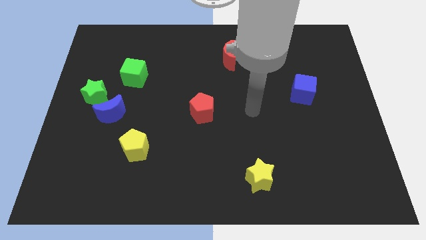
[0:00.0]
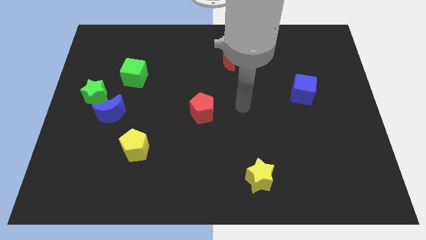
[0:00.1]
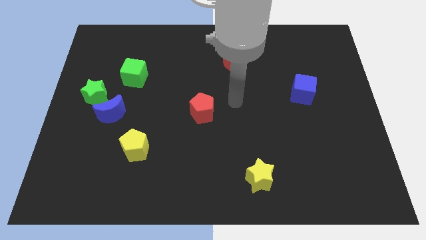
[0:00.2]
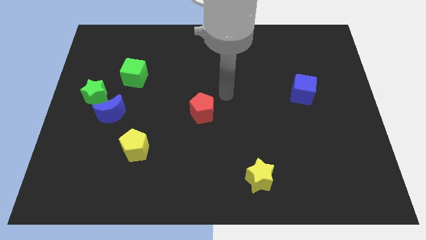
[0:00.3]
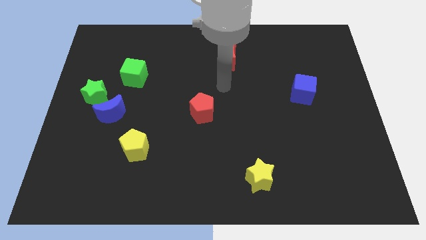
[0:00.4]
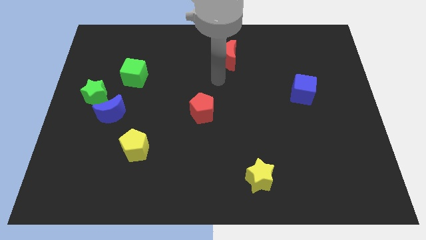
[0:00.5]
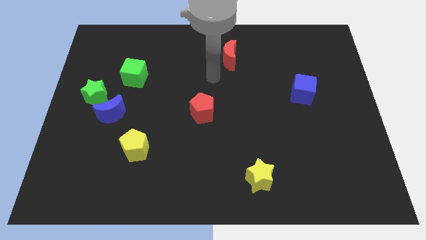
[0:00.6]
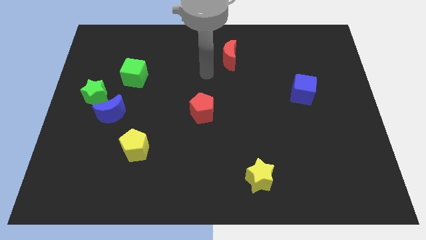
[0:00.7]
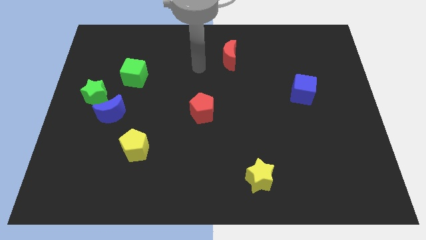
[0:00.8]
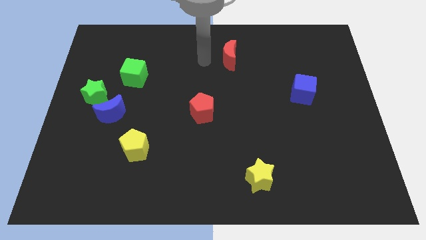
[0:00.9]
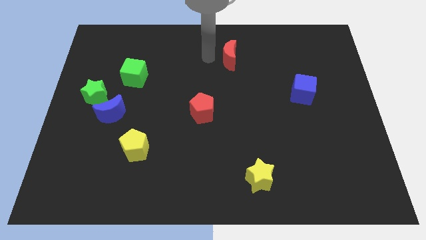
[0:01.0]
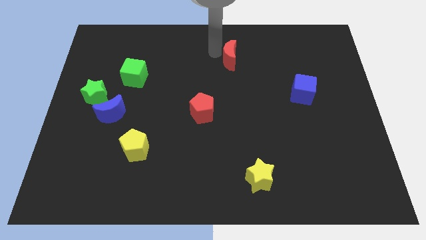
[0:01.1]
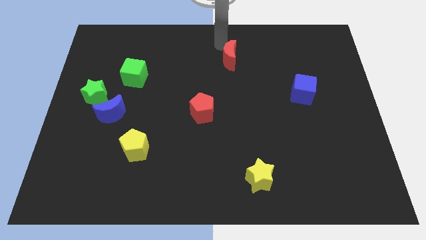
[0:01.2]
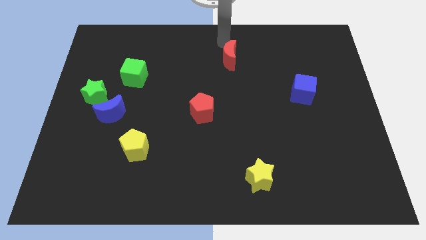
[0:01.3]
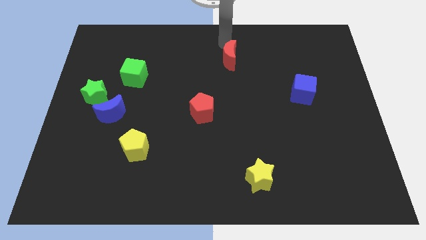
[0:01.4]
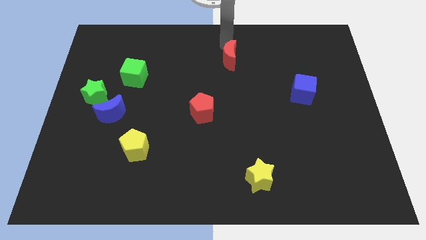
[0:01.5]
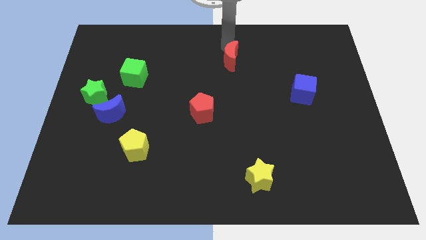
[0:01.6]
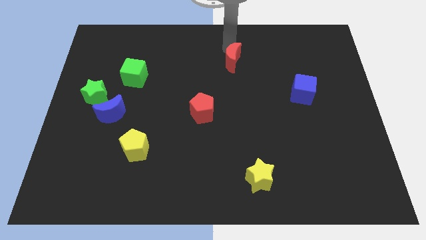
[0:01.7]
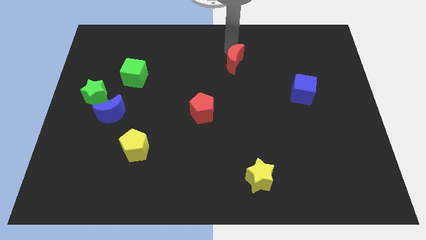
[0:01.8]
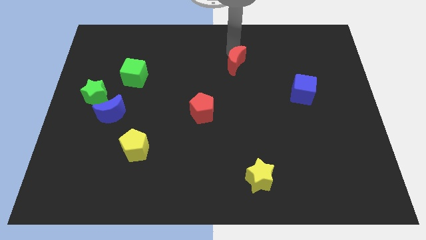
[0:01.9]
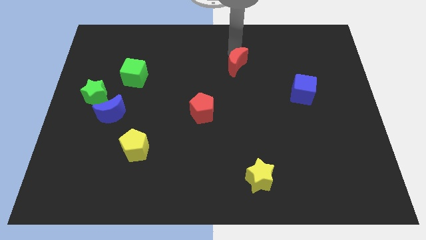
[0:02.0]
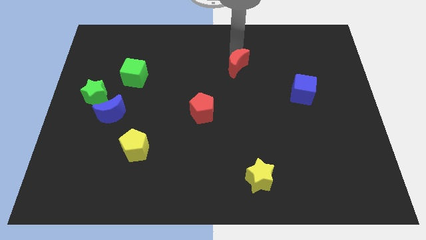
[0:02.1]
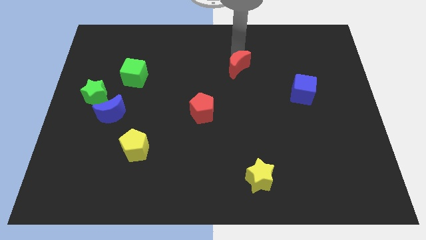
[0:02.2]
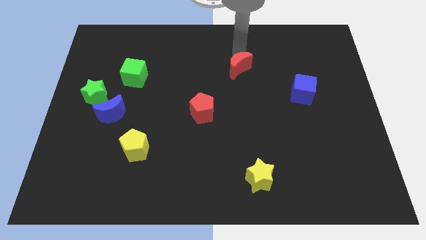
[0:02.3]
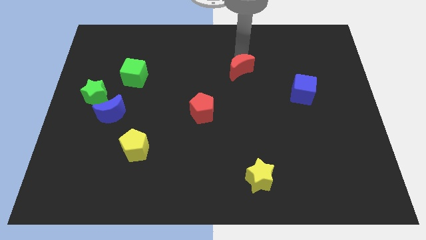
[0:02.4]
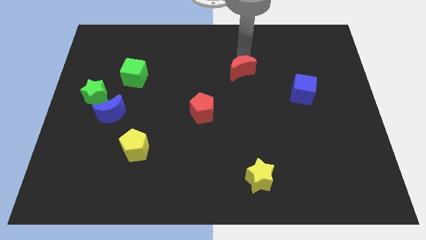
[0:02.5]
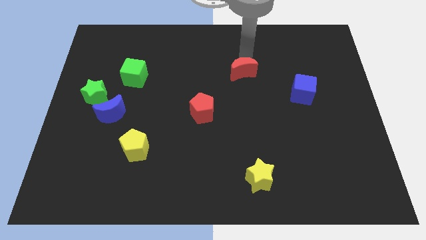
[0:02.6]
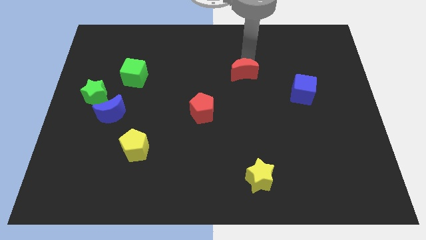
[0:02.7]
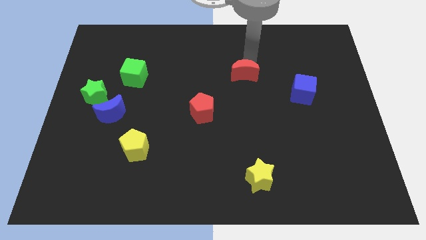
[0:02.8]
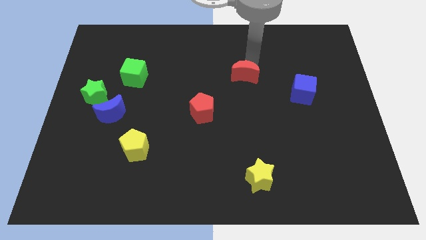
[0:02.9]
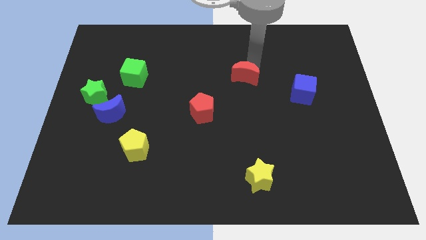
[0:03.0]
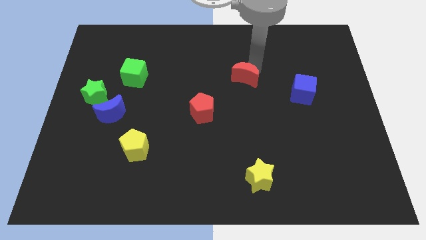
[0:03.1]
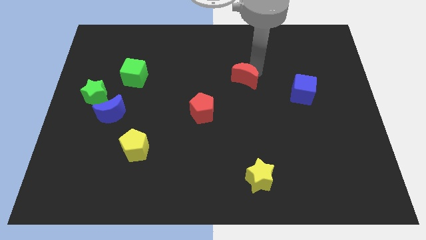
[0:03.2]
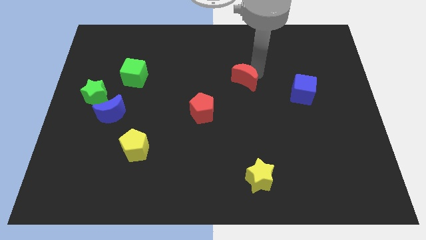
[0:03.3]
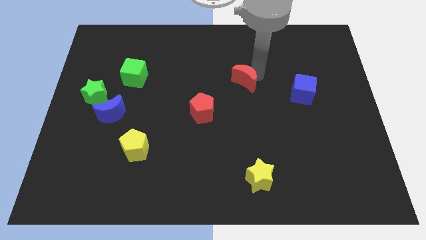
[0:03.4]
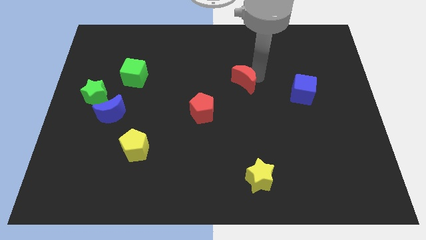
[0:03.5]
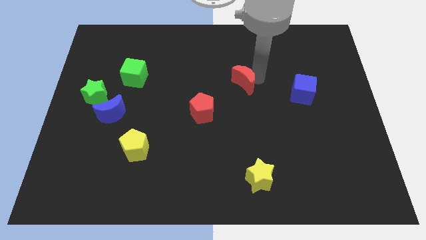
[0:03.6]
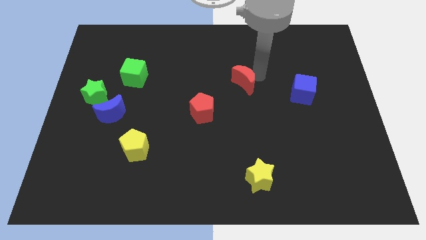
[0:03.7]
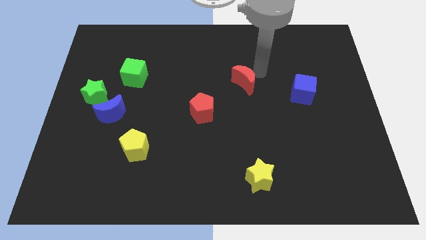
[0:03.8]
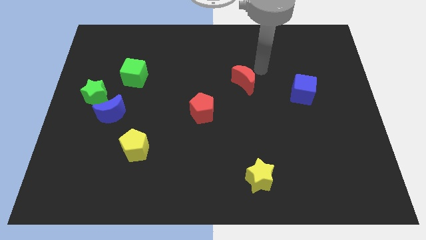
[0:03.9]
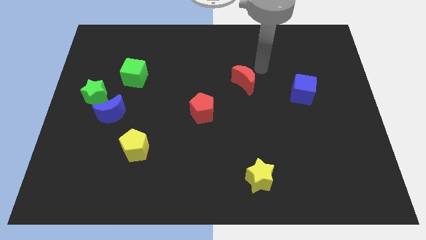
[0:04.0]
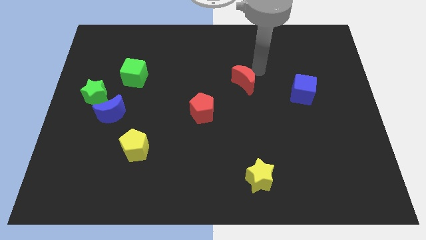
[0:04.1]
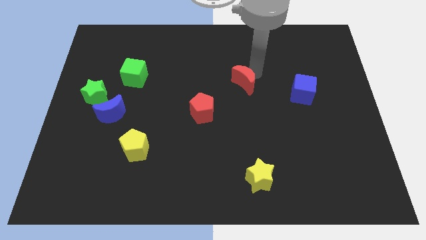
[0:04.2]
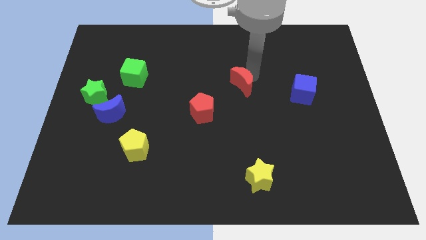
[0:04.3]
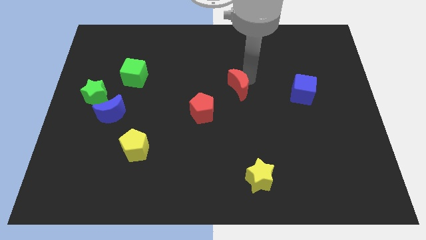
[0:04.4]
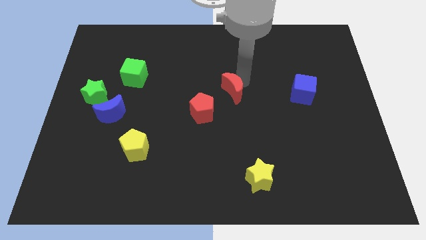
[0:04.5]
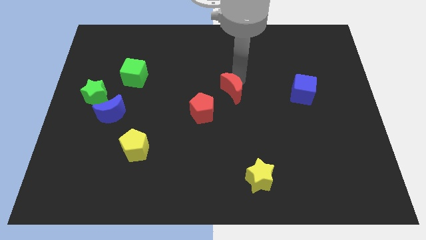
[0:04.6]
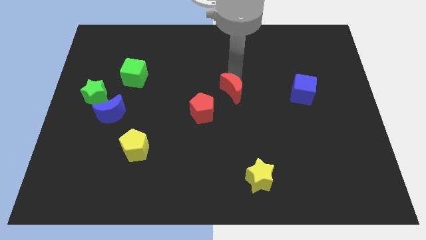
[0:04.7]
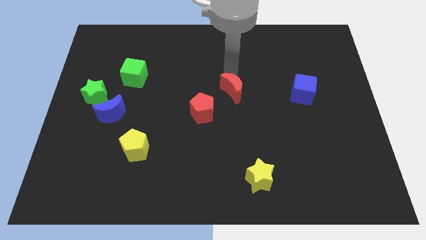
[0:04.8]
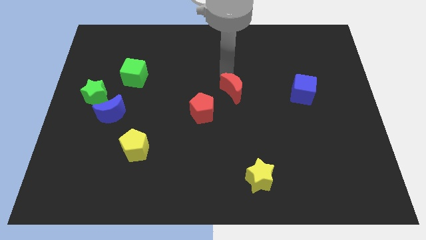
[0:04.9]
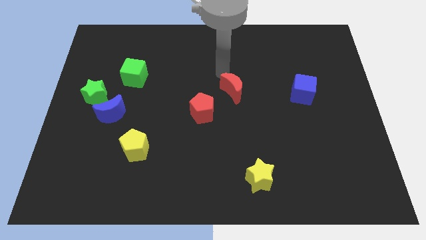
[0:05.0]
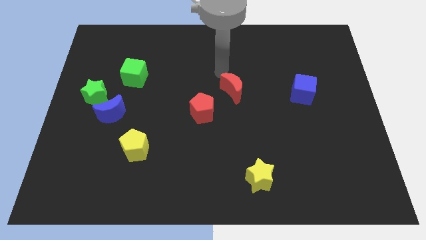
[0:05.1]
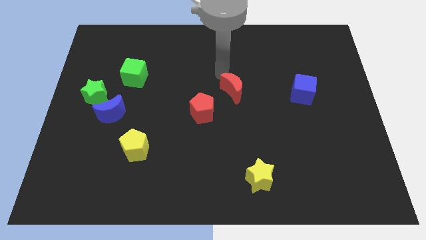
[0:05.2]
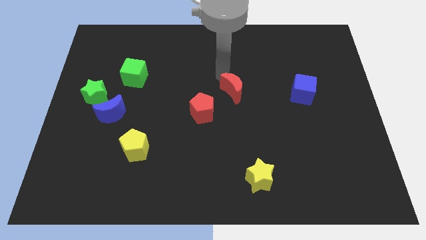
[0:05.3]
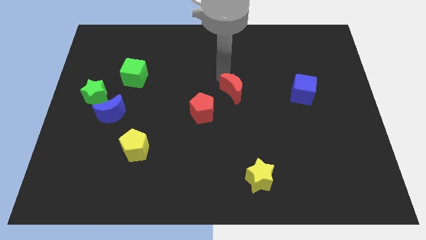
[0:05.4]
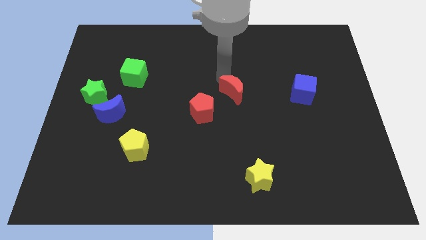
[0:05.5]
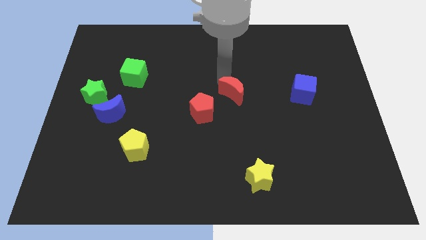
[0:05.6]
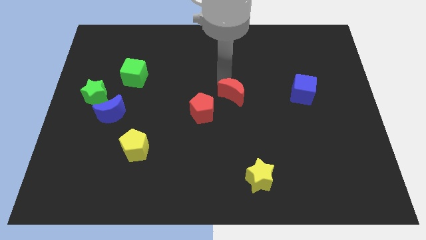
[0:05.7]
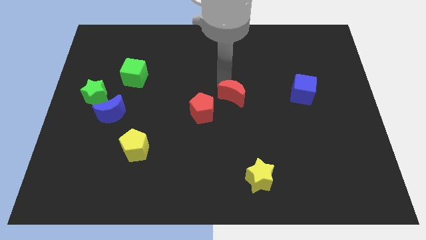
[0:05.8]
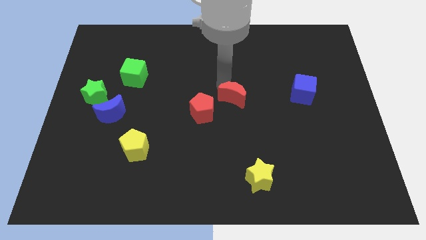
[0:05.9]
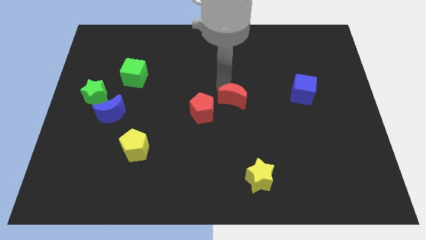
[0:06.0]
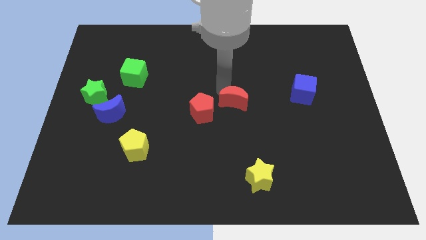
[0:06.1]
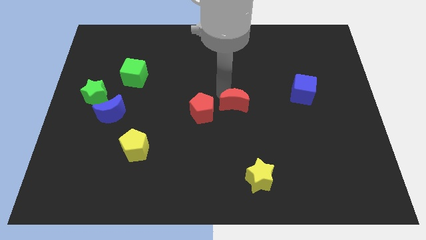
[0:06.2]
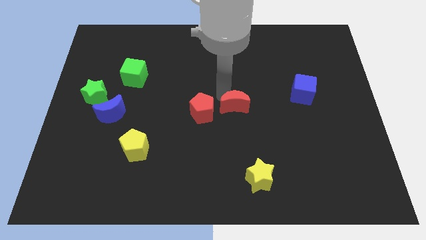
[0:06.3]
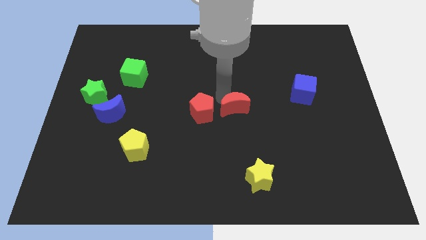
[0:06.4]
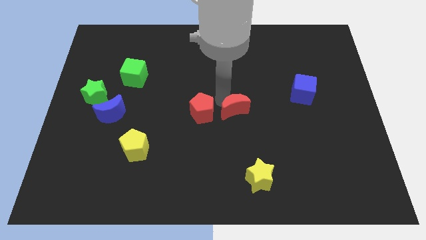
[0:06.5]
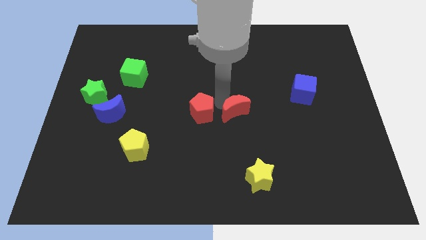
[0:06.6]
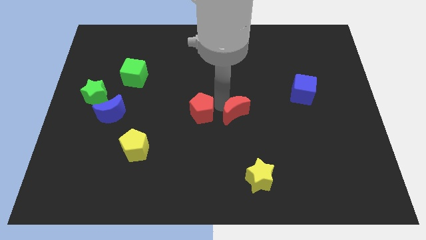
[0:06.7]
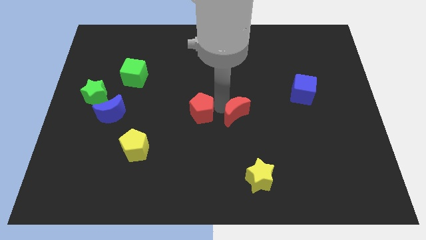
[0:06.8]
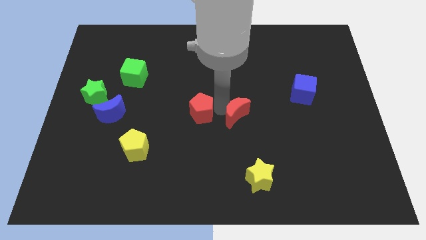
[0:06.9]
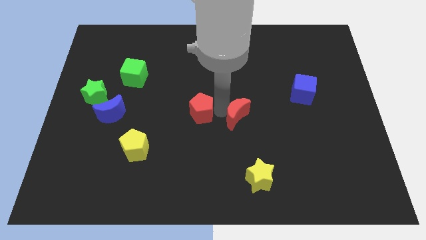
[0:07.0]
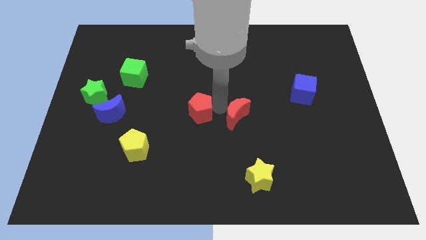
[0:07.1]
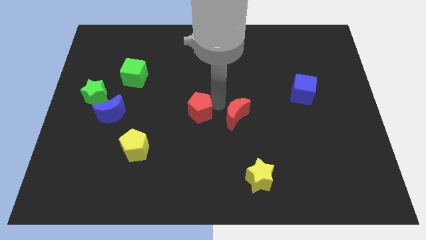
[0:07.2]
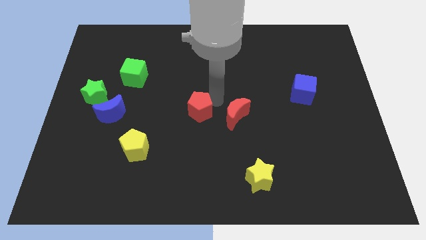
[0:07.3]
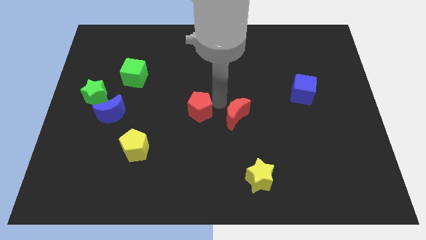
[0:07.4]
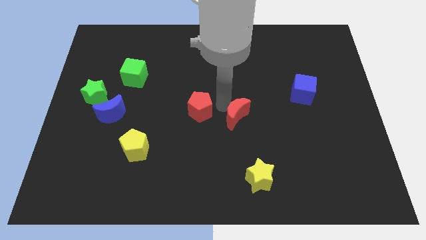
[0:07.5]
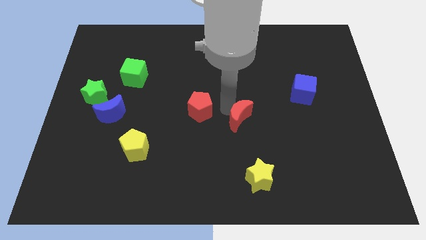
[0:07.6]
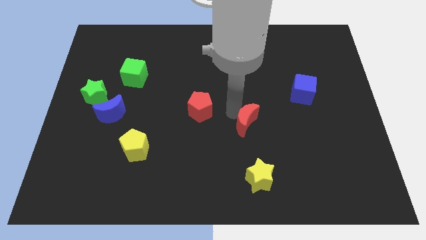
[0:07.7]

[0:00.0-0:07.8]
push the red moon above the yellow star
